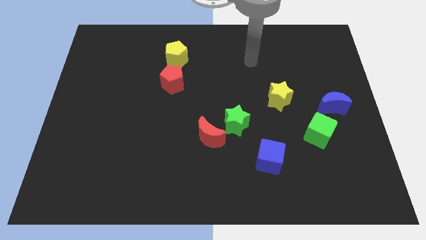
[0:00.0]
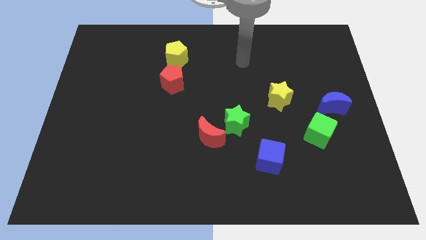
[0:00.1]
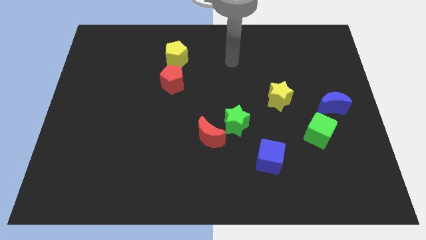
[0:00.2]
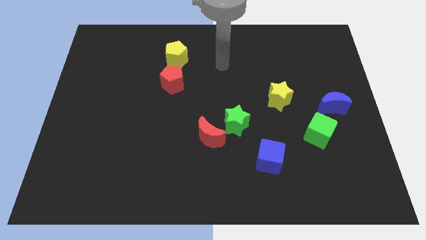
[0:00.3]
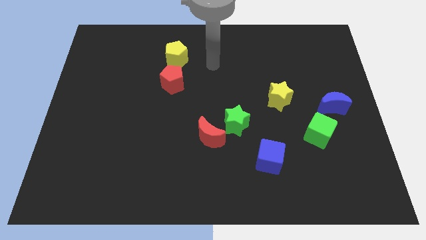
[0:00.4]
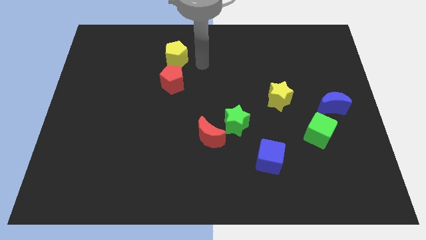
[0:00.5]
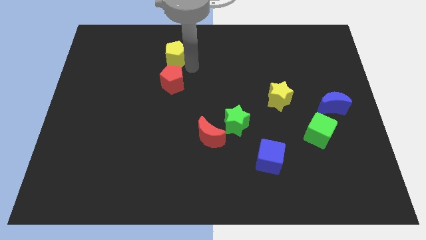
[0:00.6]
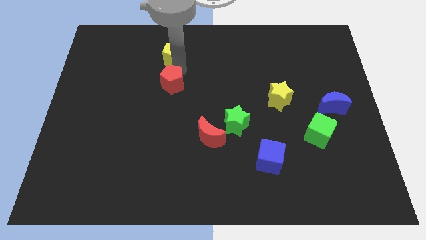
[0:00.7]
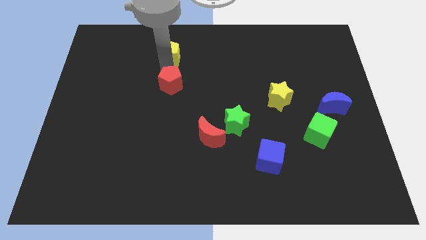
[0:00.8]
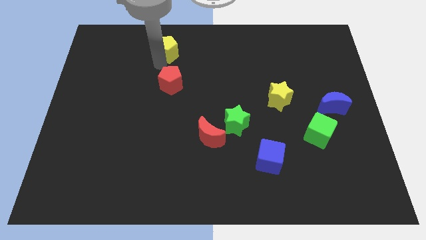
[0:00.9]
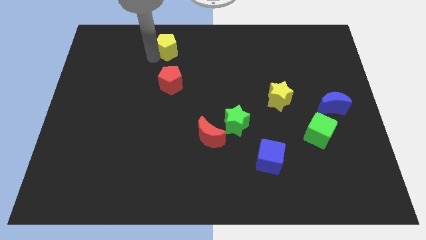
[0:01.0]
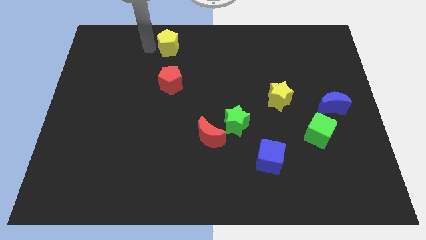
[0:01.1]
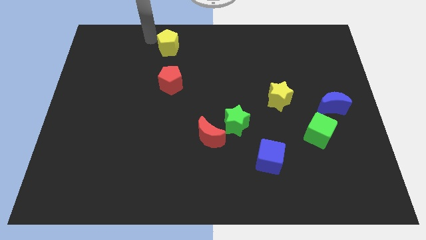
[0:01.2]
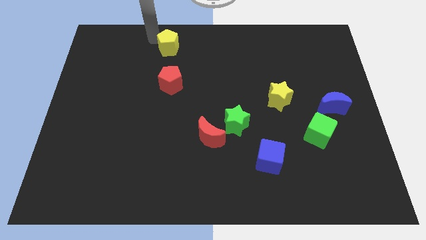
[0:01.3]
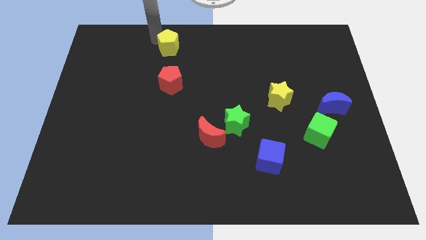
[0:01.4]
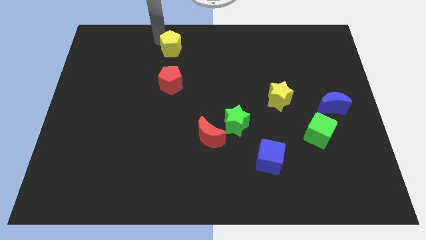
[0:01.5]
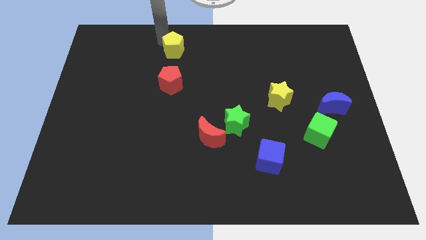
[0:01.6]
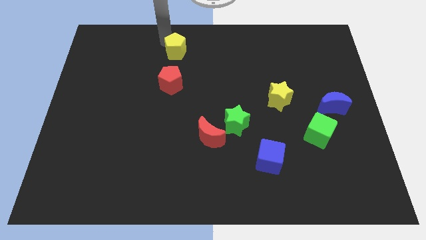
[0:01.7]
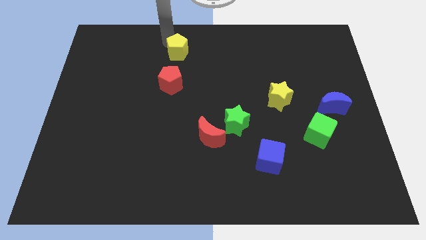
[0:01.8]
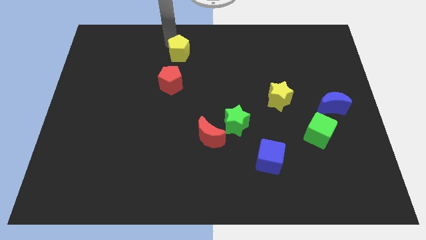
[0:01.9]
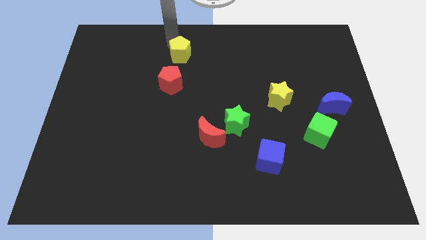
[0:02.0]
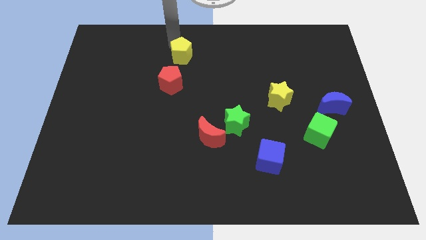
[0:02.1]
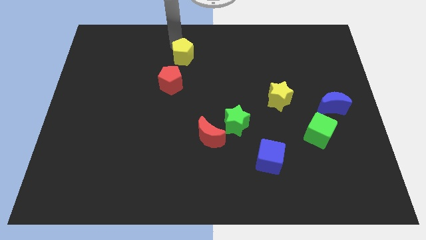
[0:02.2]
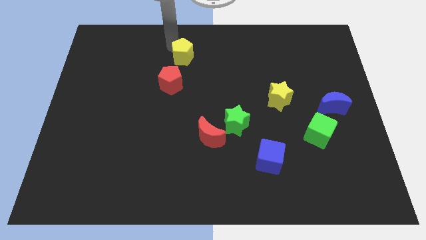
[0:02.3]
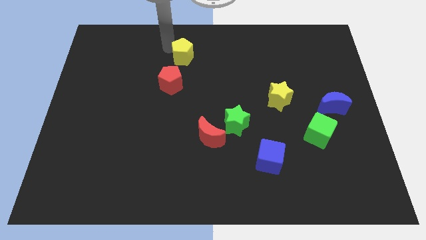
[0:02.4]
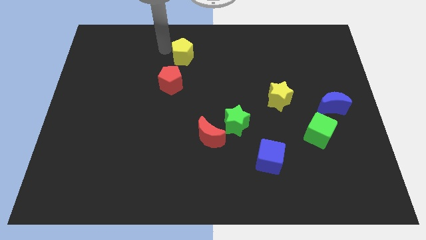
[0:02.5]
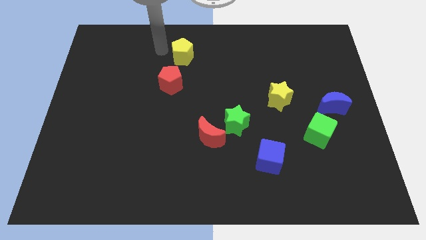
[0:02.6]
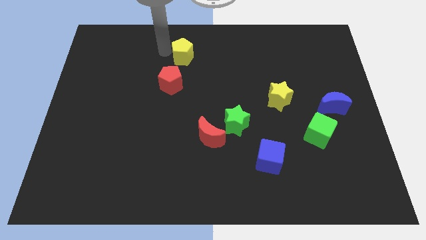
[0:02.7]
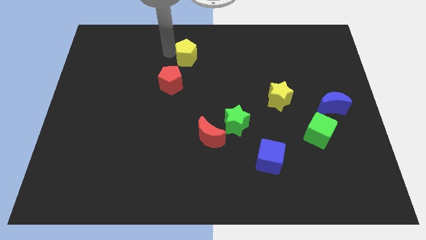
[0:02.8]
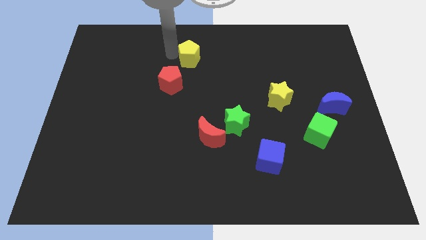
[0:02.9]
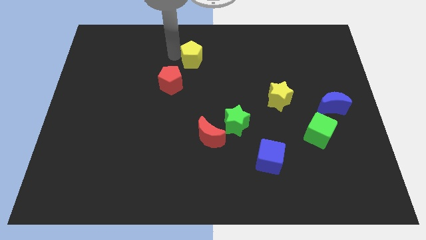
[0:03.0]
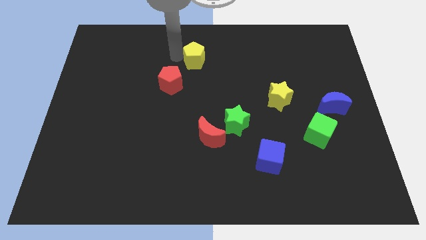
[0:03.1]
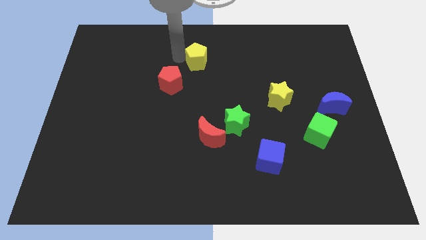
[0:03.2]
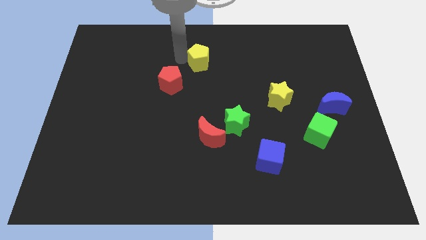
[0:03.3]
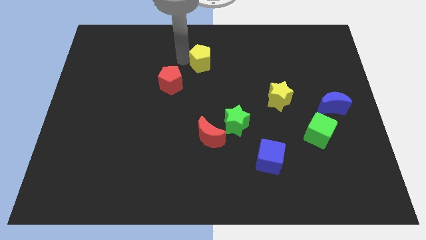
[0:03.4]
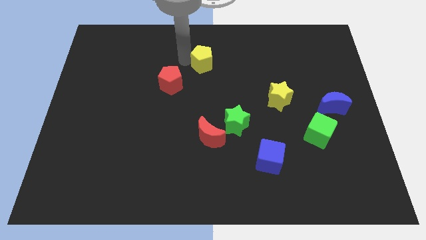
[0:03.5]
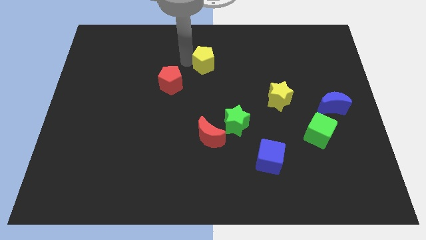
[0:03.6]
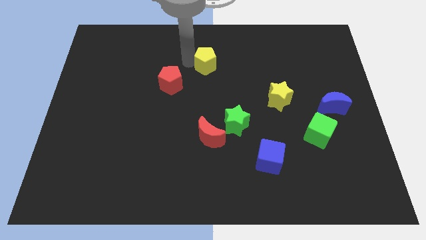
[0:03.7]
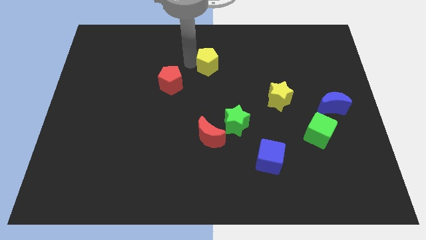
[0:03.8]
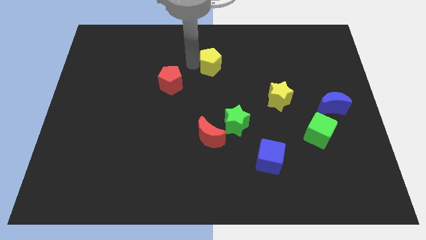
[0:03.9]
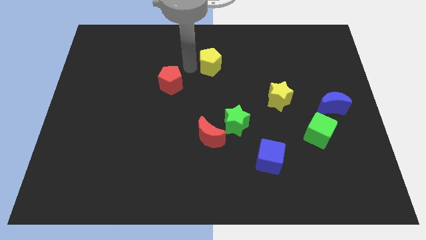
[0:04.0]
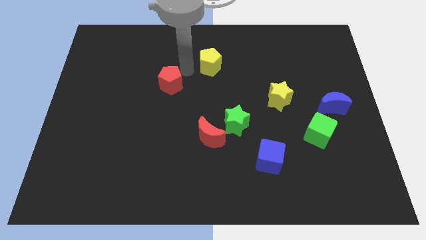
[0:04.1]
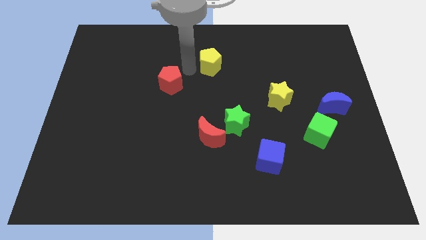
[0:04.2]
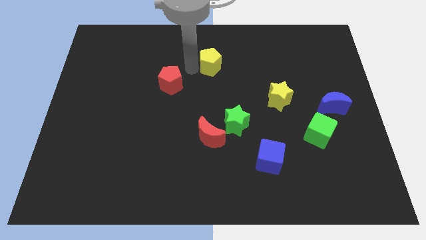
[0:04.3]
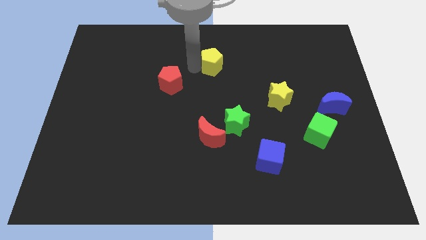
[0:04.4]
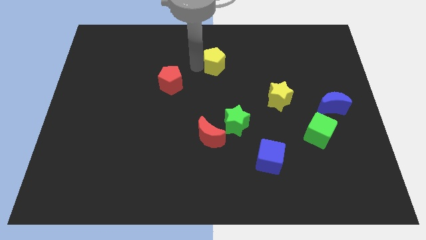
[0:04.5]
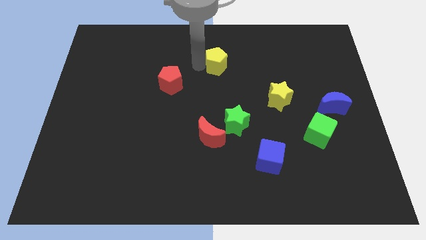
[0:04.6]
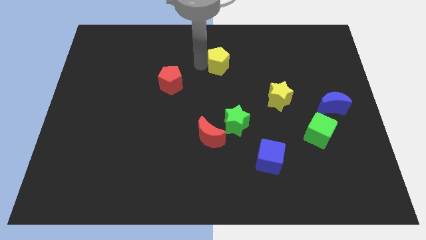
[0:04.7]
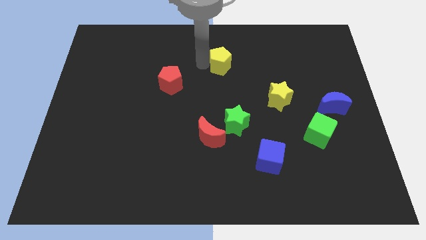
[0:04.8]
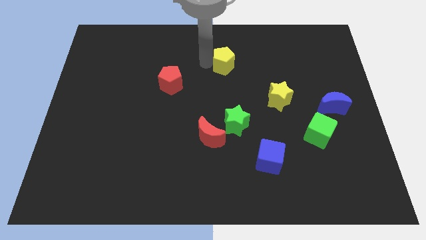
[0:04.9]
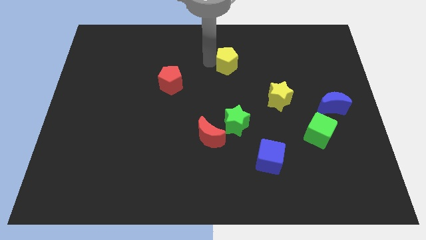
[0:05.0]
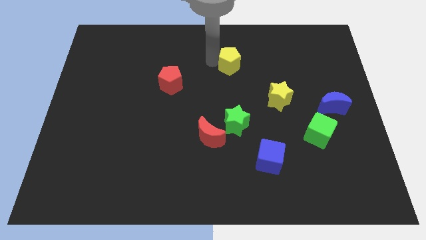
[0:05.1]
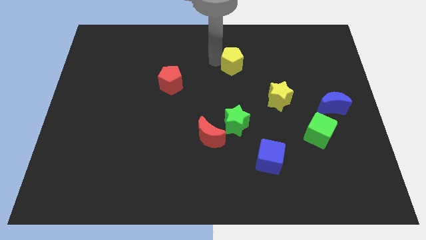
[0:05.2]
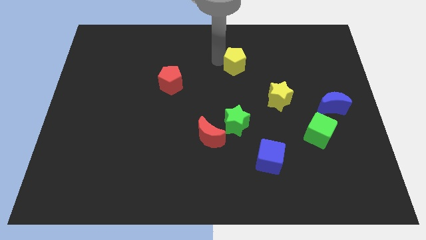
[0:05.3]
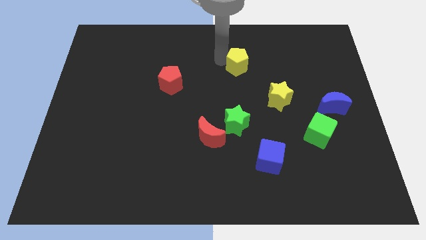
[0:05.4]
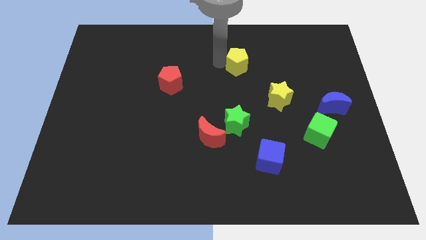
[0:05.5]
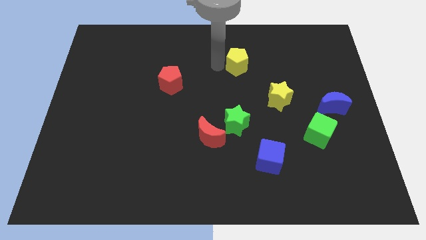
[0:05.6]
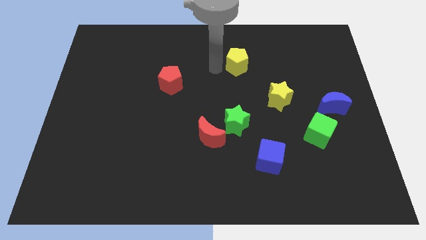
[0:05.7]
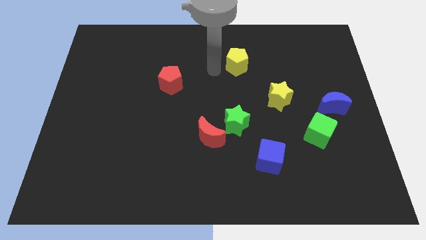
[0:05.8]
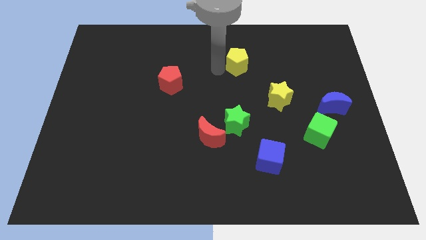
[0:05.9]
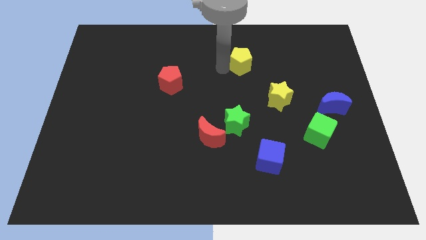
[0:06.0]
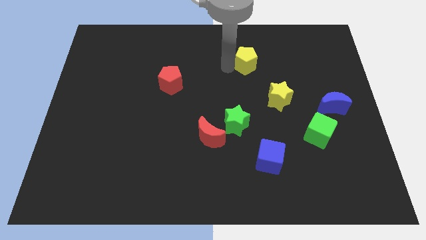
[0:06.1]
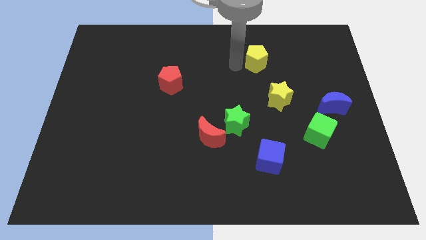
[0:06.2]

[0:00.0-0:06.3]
slide the yellow pentagon to the right

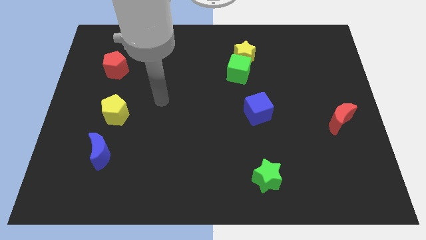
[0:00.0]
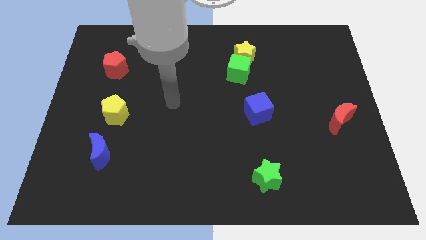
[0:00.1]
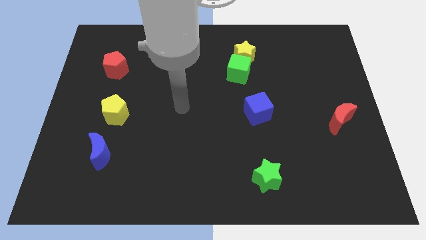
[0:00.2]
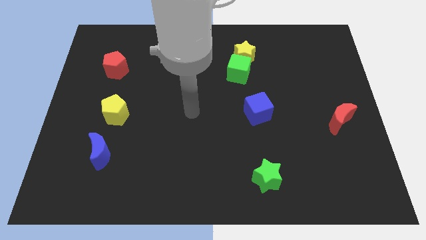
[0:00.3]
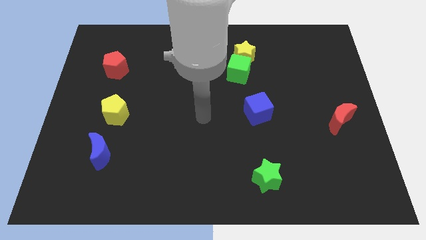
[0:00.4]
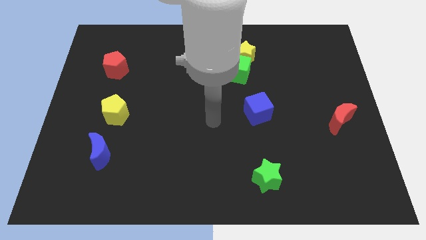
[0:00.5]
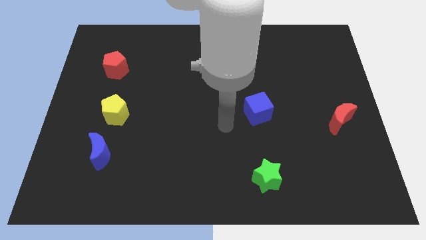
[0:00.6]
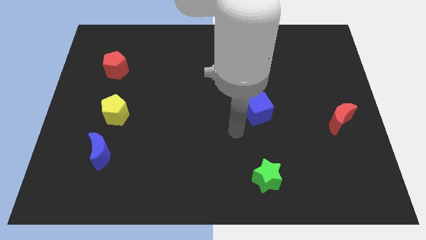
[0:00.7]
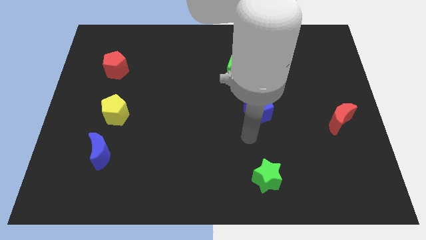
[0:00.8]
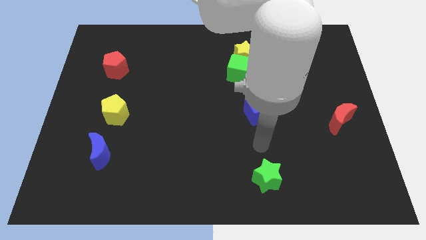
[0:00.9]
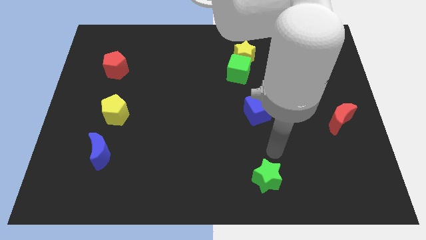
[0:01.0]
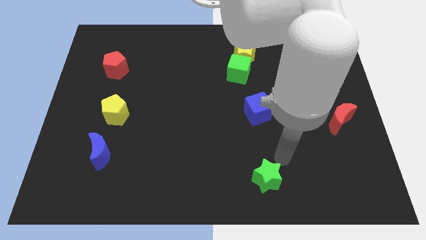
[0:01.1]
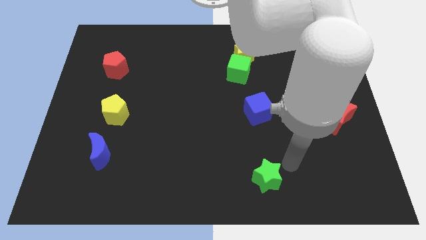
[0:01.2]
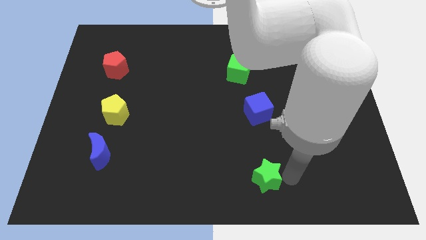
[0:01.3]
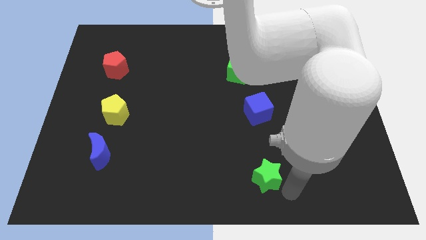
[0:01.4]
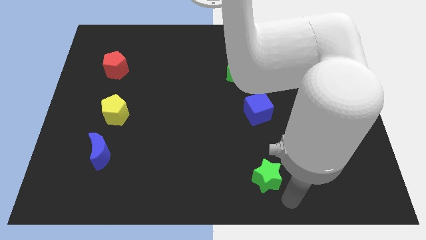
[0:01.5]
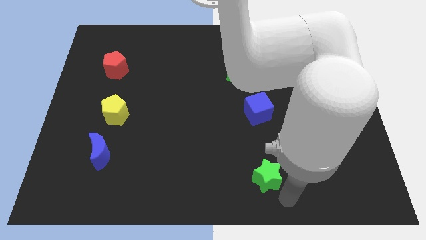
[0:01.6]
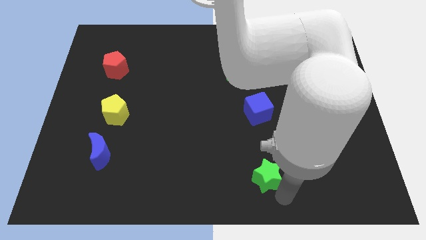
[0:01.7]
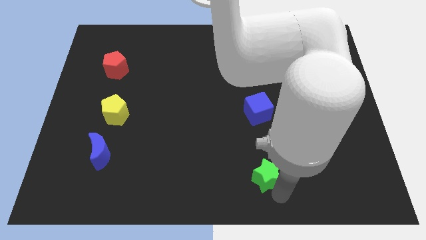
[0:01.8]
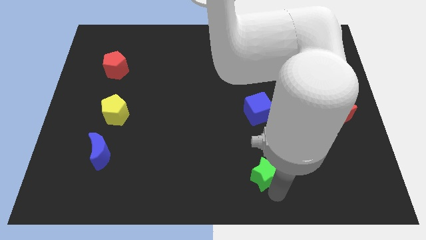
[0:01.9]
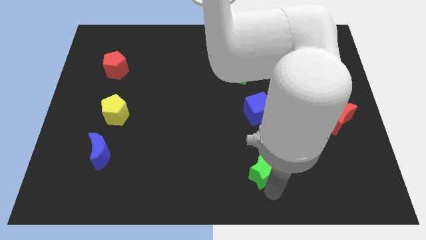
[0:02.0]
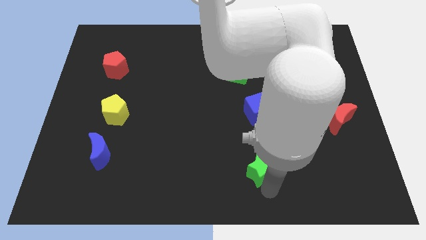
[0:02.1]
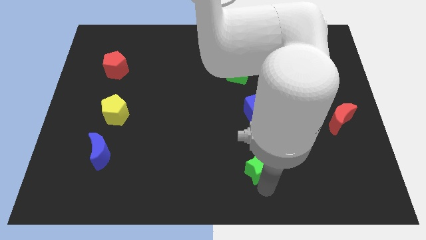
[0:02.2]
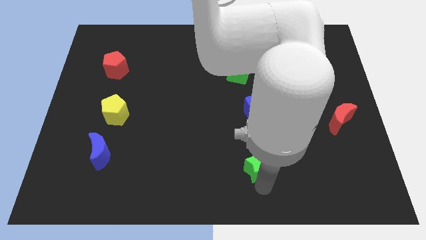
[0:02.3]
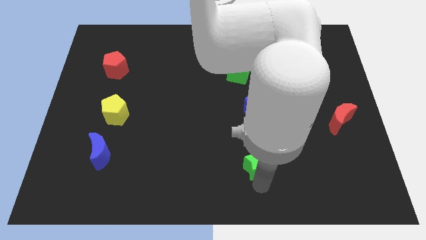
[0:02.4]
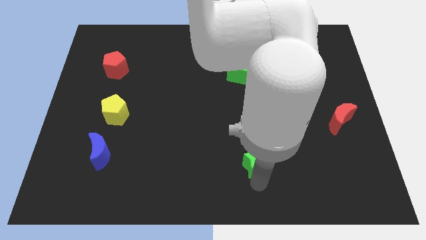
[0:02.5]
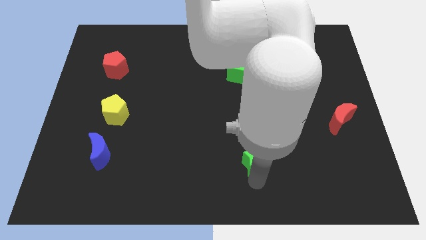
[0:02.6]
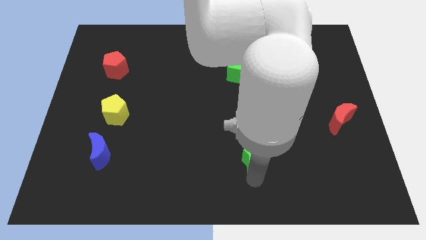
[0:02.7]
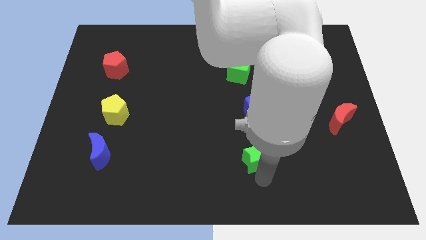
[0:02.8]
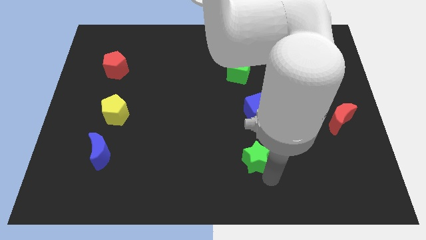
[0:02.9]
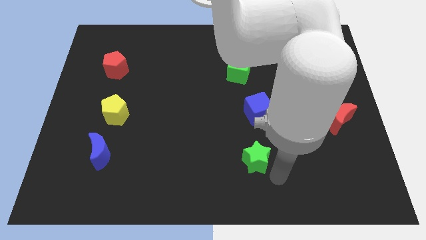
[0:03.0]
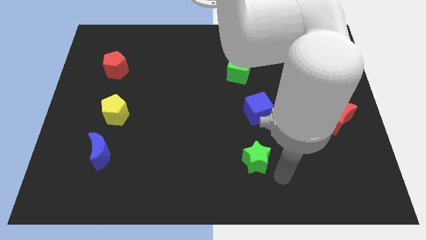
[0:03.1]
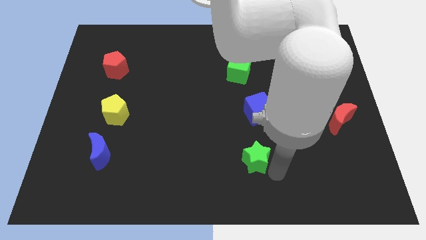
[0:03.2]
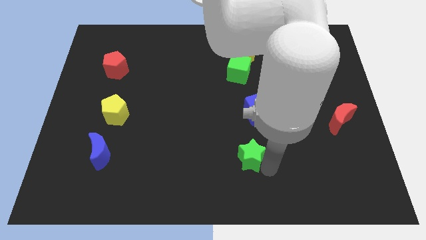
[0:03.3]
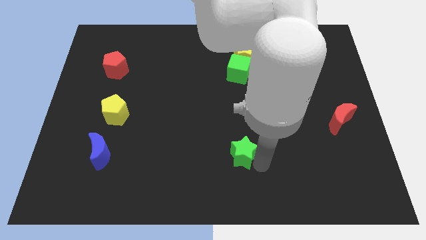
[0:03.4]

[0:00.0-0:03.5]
slightly move the green star up and then to the left
